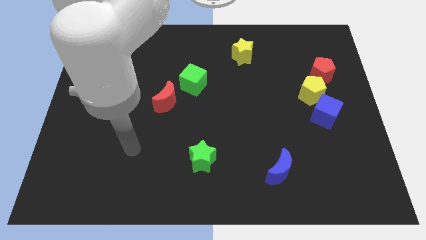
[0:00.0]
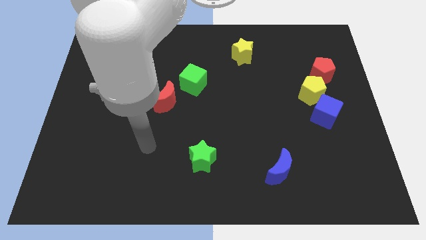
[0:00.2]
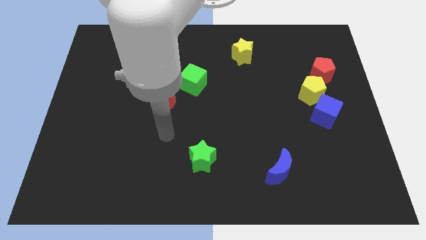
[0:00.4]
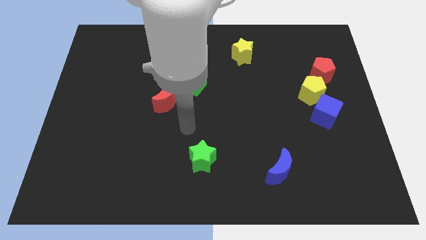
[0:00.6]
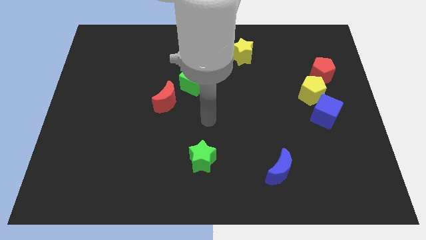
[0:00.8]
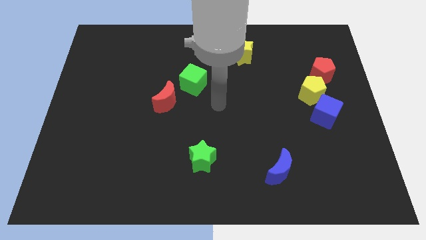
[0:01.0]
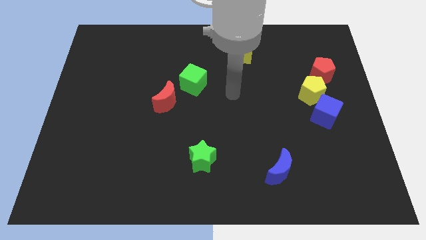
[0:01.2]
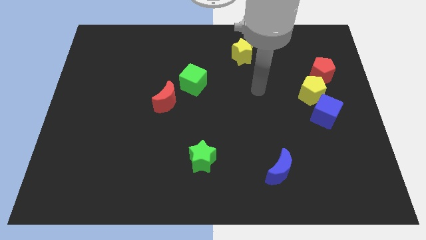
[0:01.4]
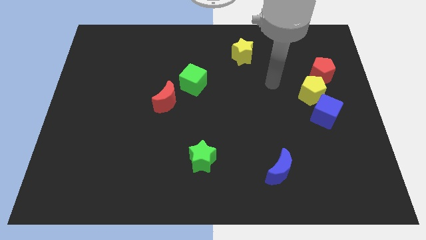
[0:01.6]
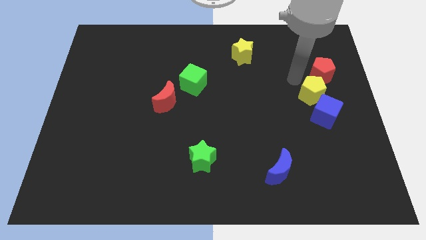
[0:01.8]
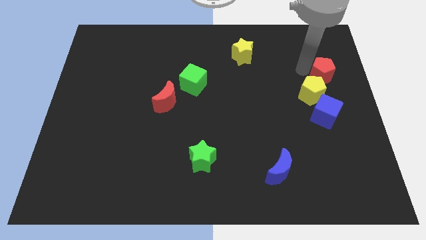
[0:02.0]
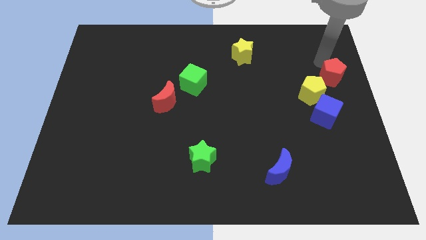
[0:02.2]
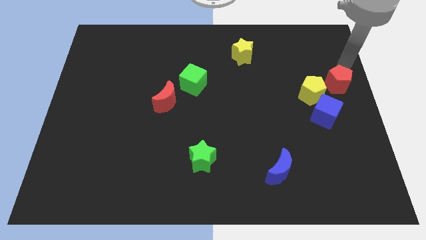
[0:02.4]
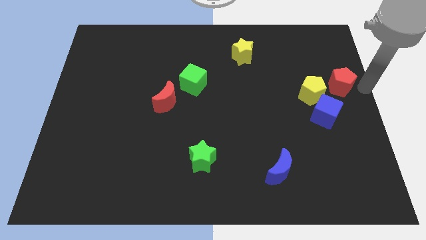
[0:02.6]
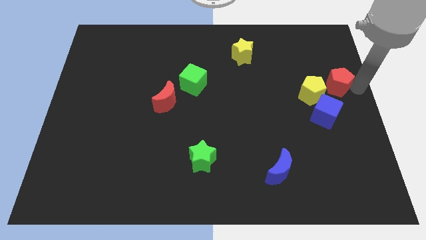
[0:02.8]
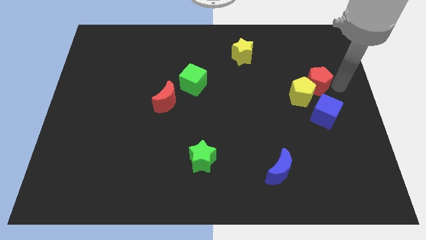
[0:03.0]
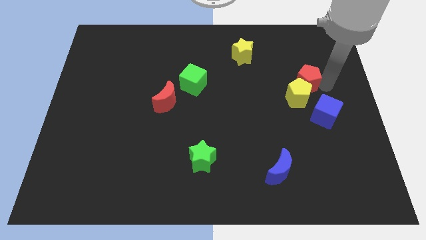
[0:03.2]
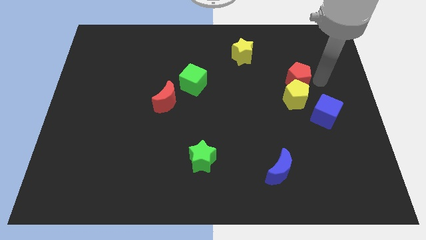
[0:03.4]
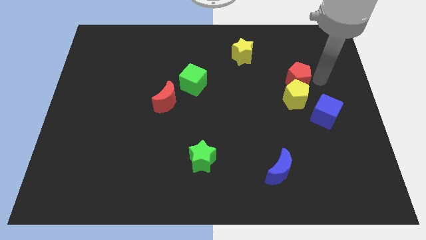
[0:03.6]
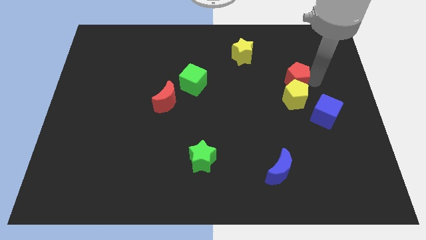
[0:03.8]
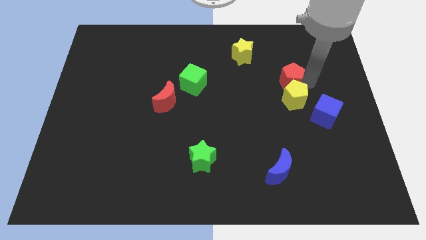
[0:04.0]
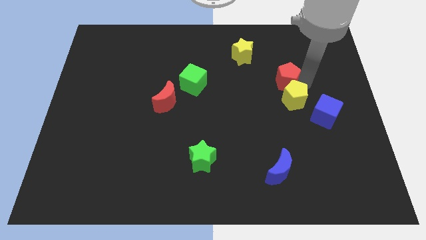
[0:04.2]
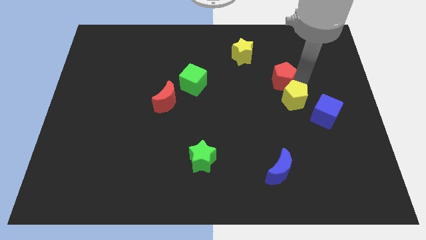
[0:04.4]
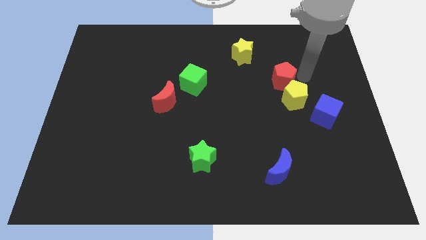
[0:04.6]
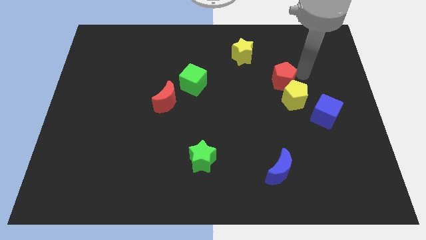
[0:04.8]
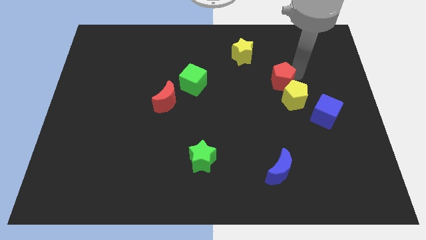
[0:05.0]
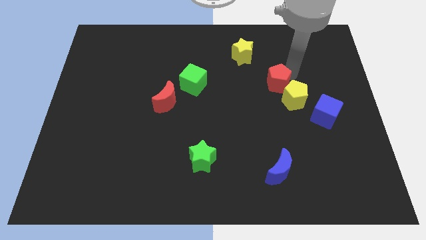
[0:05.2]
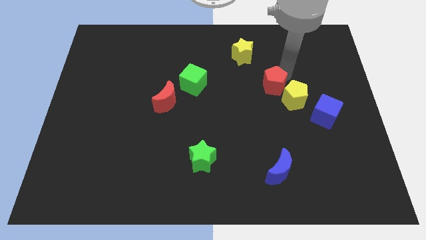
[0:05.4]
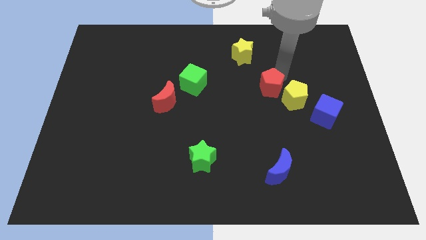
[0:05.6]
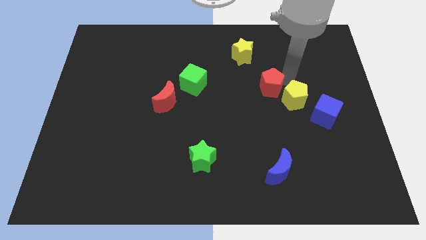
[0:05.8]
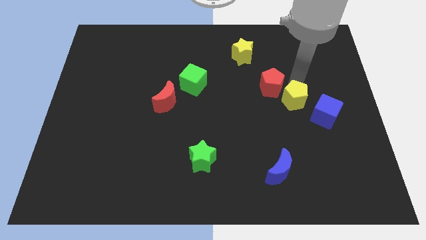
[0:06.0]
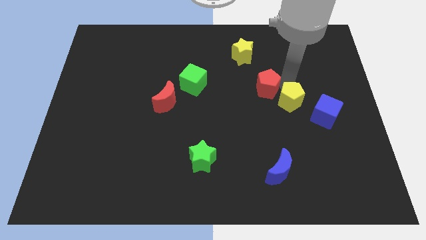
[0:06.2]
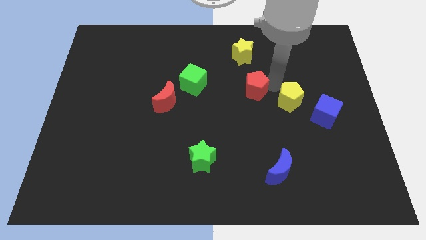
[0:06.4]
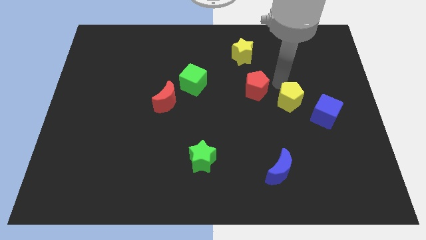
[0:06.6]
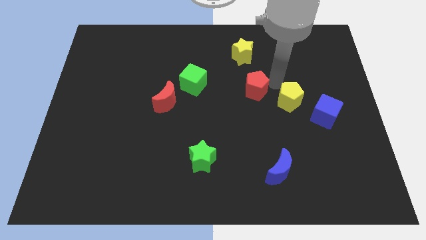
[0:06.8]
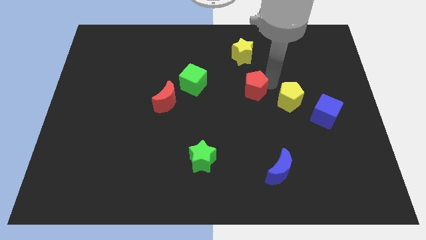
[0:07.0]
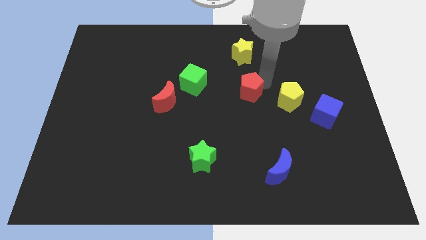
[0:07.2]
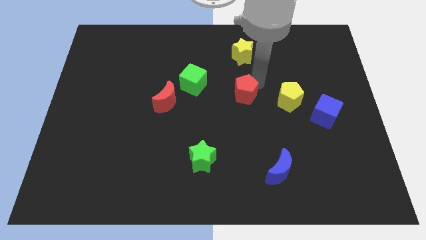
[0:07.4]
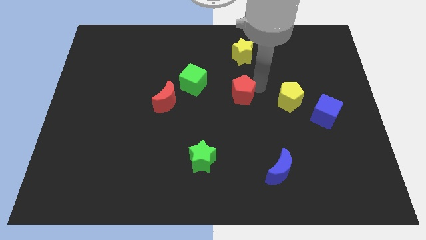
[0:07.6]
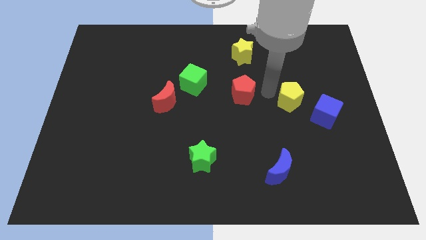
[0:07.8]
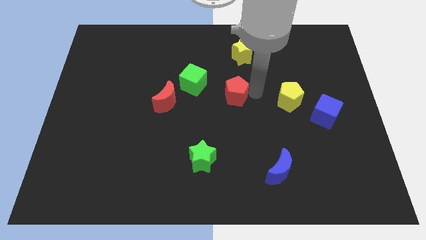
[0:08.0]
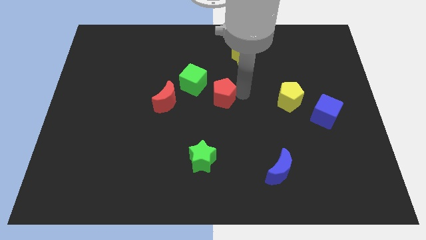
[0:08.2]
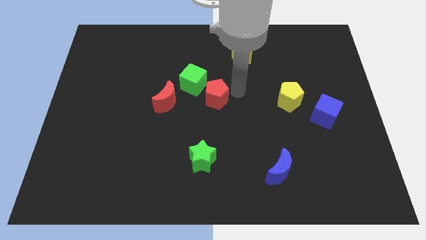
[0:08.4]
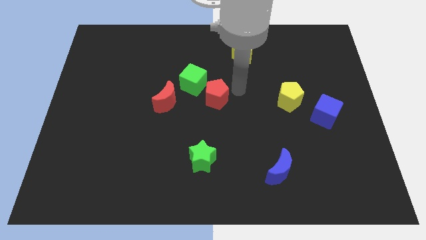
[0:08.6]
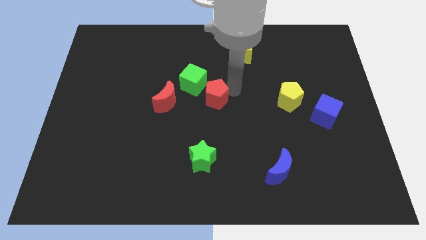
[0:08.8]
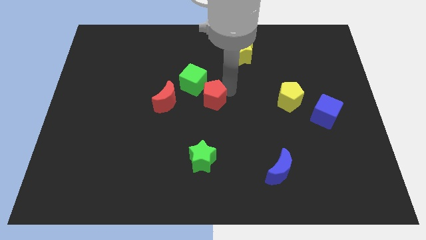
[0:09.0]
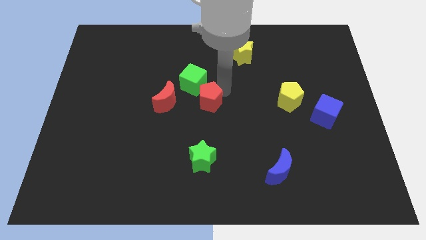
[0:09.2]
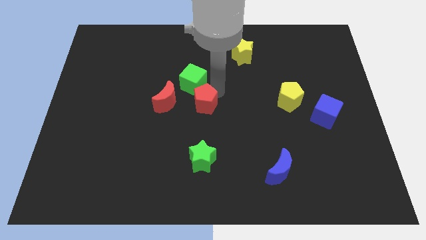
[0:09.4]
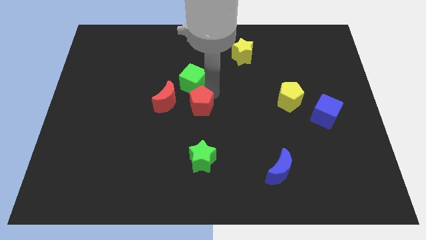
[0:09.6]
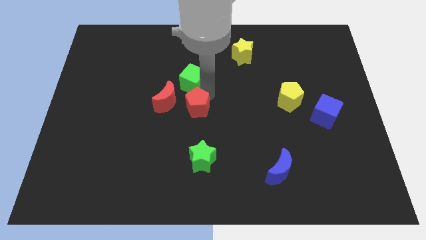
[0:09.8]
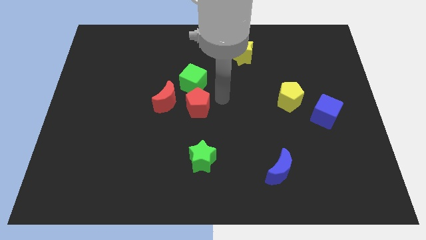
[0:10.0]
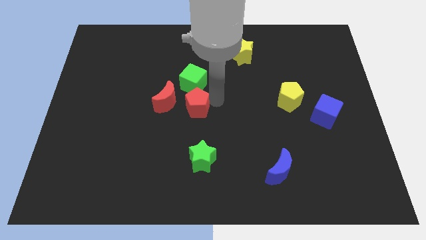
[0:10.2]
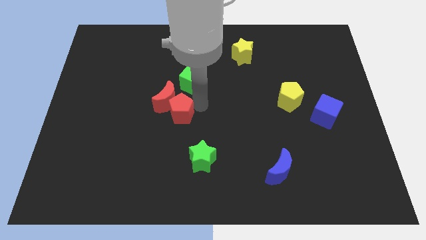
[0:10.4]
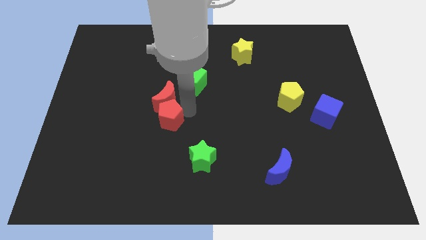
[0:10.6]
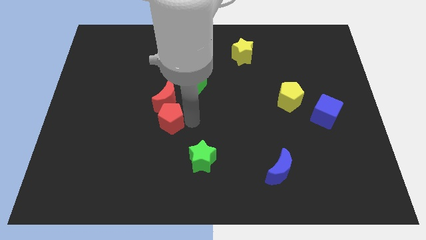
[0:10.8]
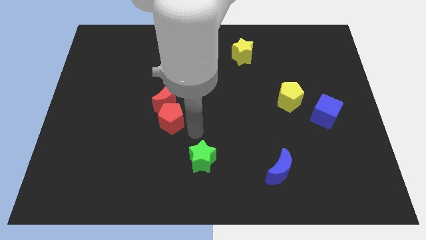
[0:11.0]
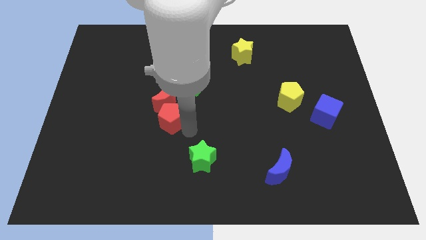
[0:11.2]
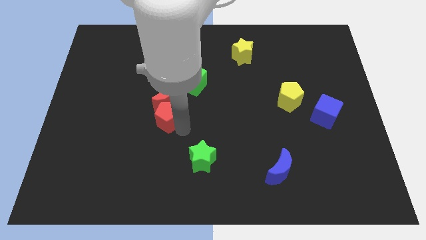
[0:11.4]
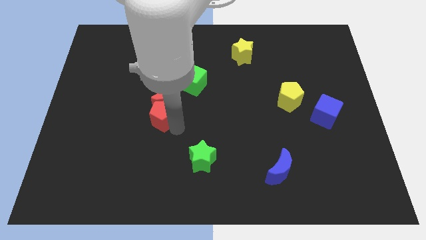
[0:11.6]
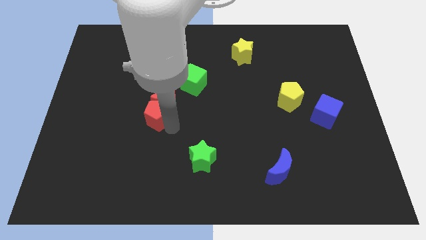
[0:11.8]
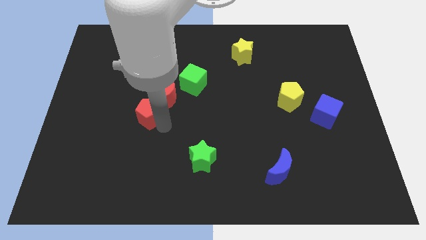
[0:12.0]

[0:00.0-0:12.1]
push the red pentagon to the left of the red moon

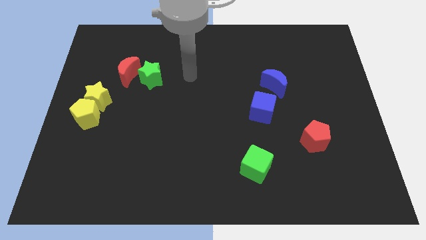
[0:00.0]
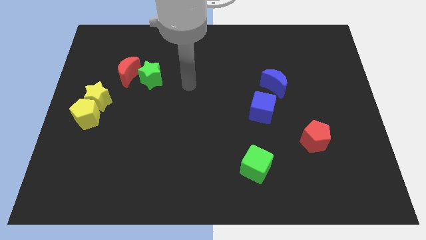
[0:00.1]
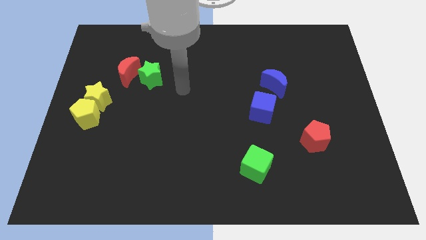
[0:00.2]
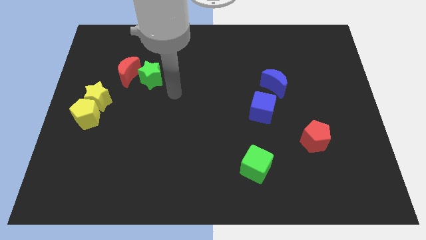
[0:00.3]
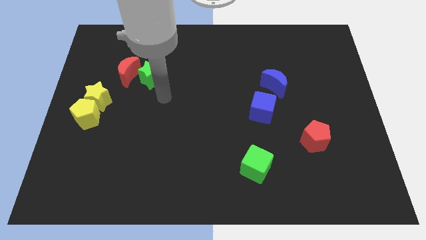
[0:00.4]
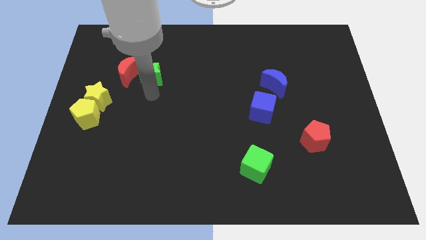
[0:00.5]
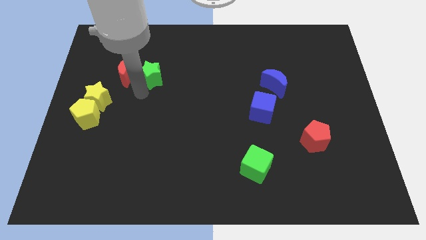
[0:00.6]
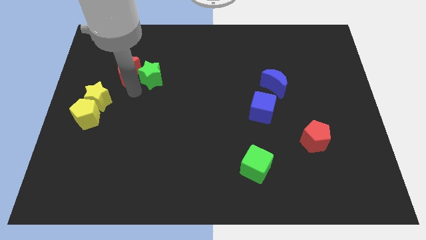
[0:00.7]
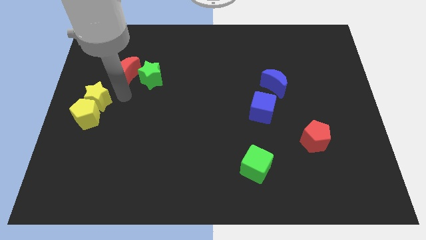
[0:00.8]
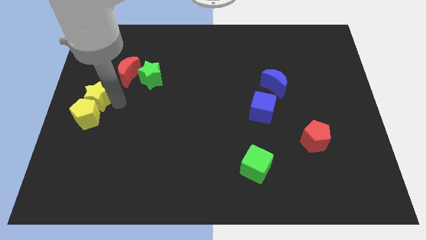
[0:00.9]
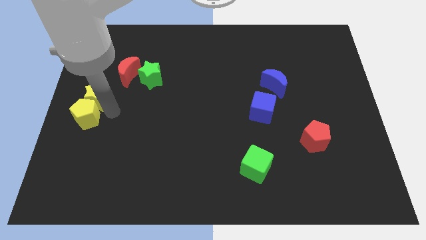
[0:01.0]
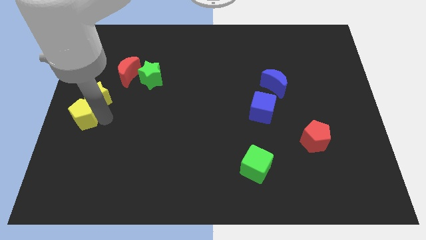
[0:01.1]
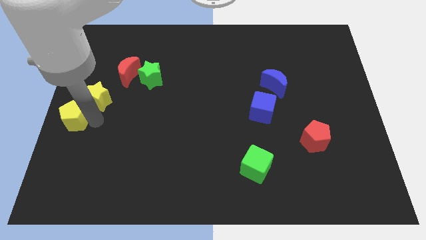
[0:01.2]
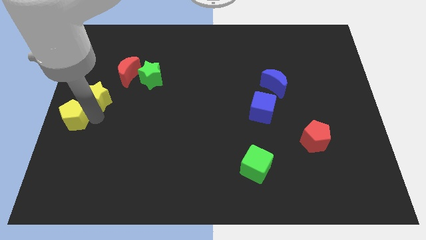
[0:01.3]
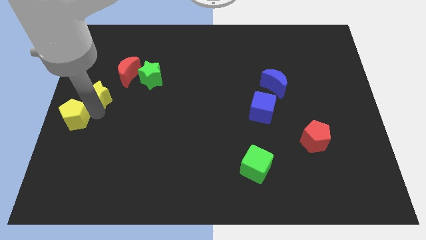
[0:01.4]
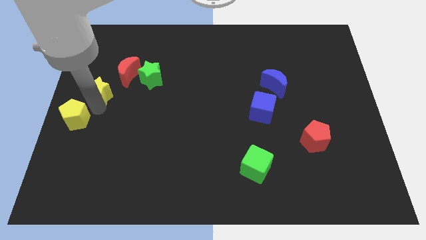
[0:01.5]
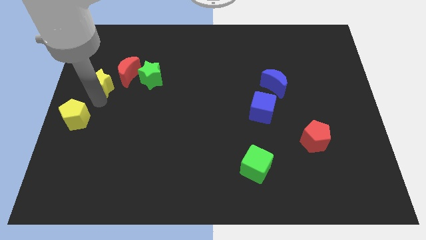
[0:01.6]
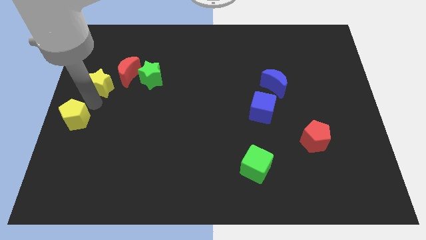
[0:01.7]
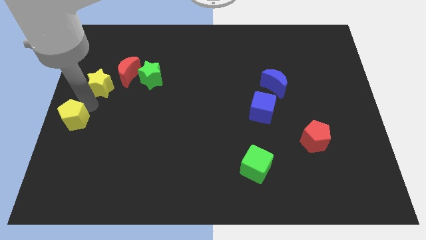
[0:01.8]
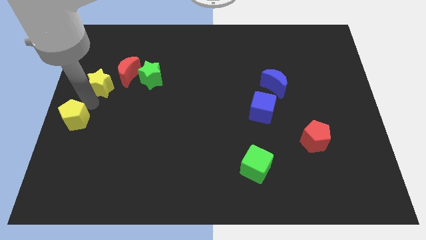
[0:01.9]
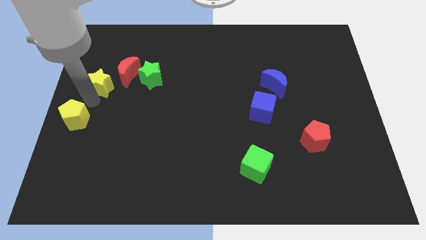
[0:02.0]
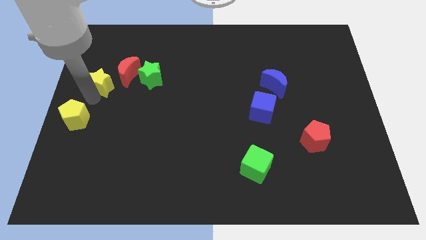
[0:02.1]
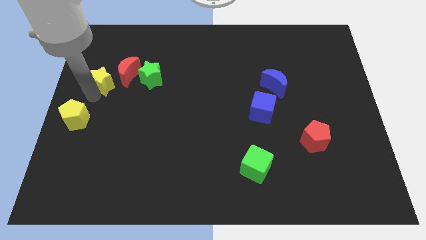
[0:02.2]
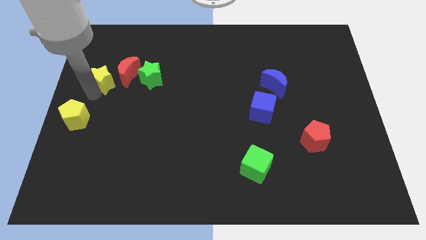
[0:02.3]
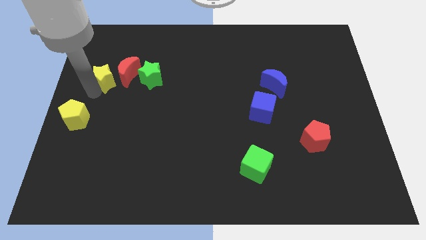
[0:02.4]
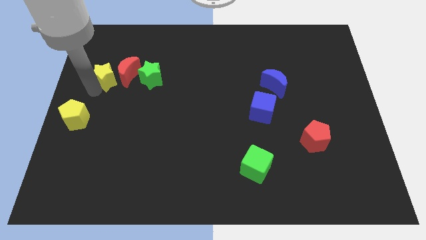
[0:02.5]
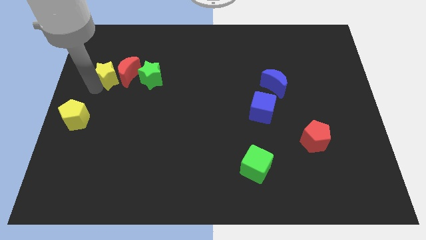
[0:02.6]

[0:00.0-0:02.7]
put the yellow star to the top left side of the red moon
